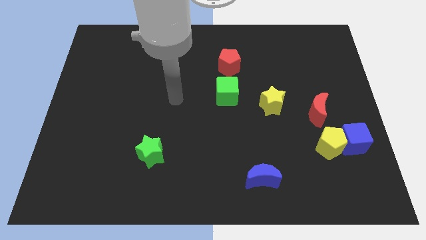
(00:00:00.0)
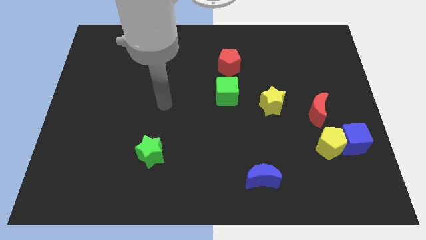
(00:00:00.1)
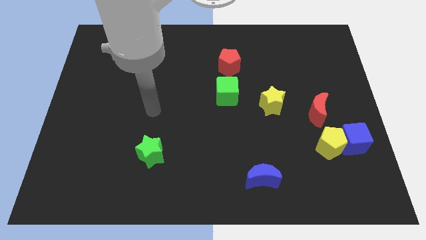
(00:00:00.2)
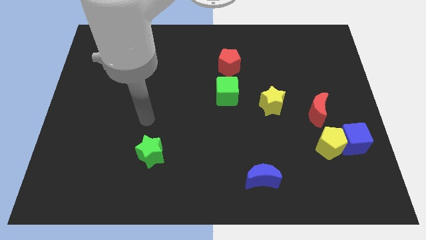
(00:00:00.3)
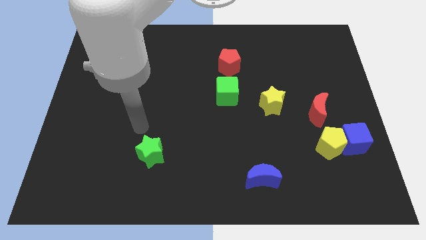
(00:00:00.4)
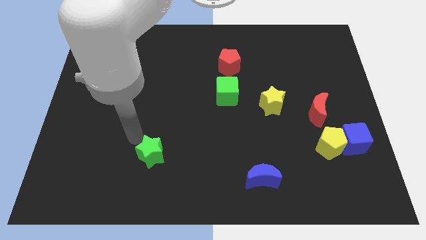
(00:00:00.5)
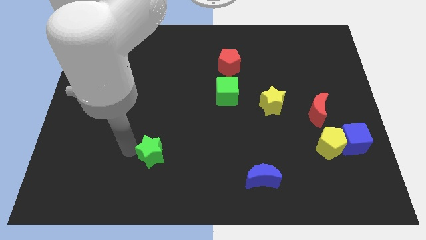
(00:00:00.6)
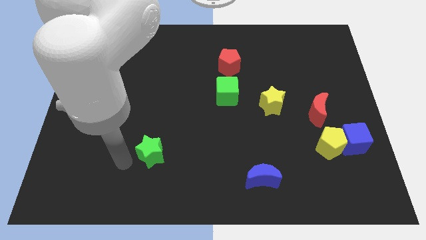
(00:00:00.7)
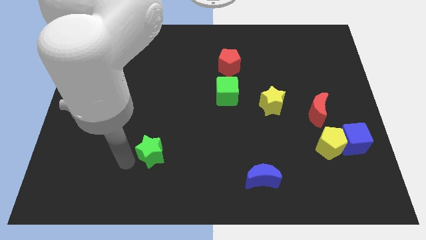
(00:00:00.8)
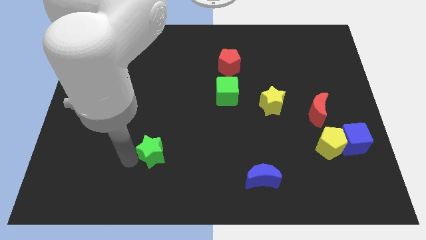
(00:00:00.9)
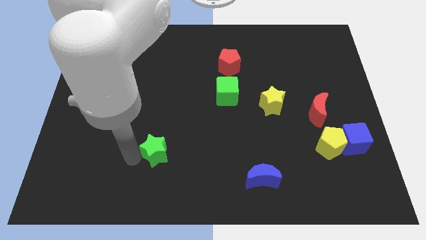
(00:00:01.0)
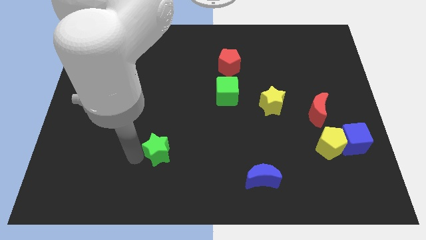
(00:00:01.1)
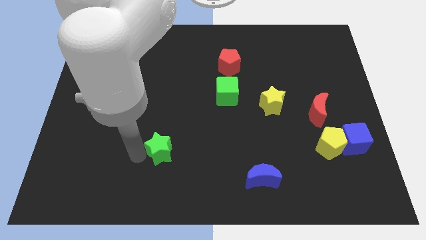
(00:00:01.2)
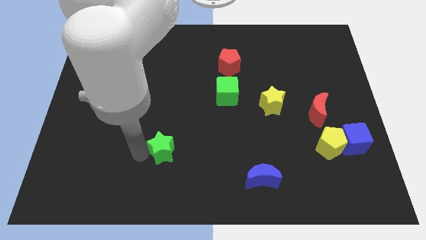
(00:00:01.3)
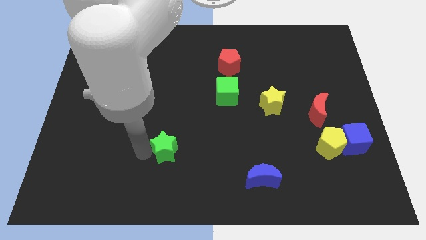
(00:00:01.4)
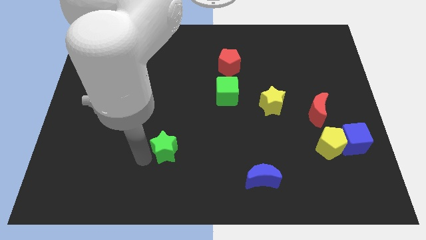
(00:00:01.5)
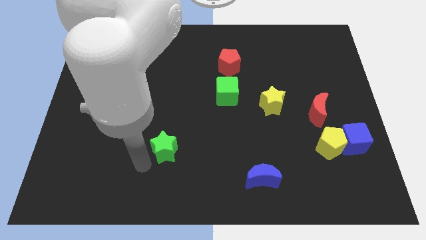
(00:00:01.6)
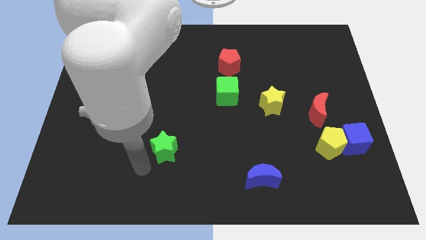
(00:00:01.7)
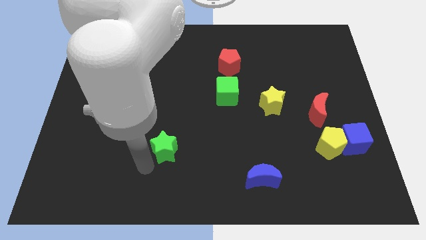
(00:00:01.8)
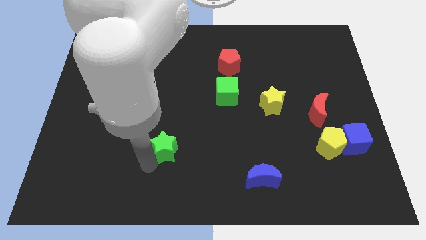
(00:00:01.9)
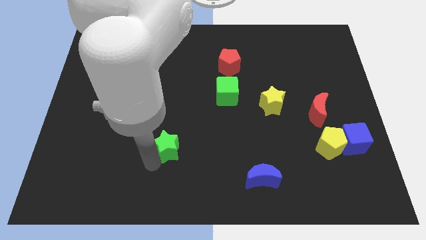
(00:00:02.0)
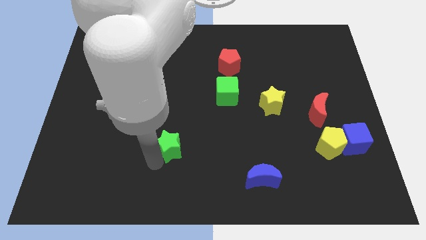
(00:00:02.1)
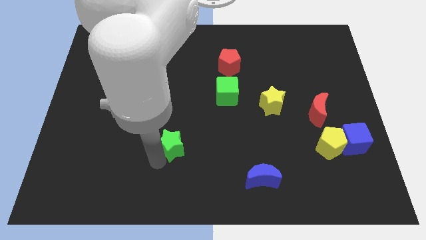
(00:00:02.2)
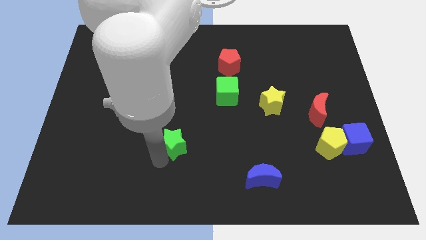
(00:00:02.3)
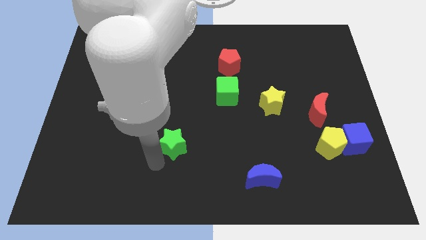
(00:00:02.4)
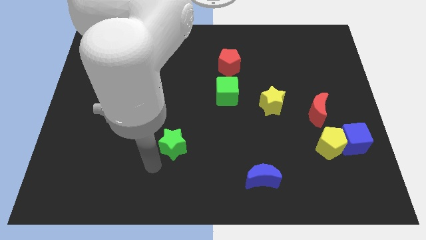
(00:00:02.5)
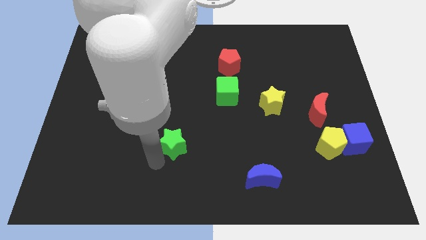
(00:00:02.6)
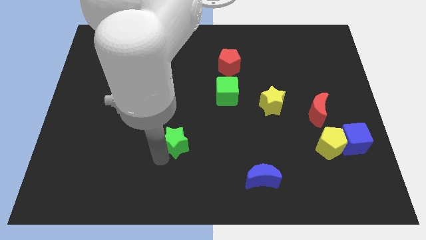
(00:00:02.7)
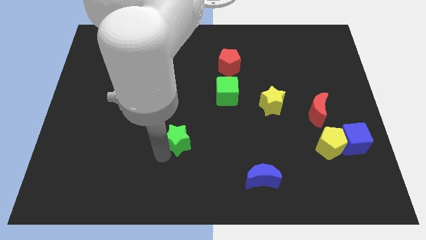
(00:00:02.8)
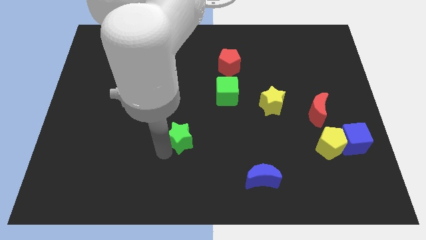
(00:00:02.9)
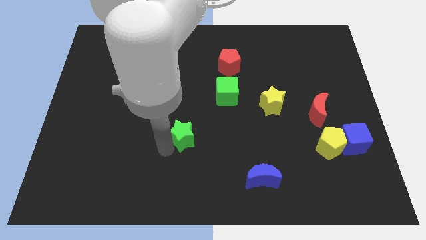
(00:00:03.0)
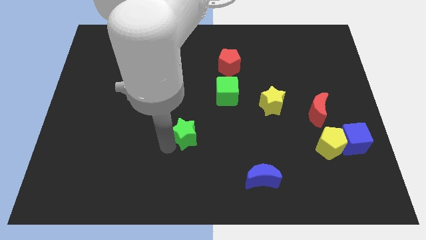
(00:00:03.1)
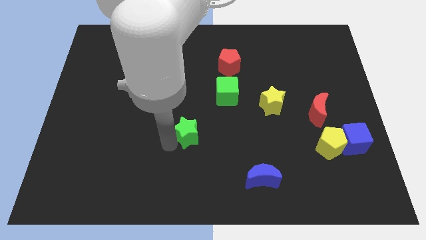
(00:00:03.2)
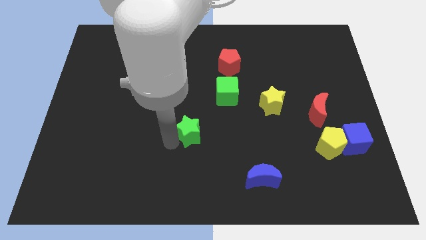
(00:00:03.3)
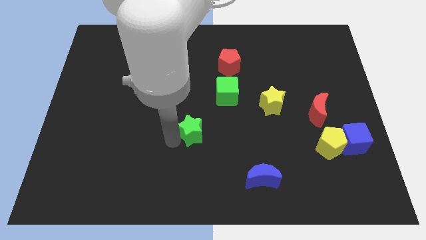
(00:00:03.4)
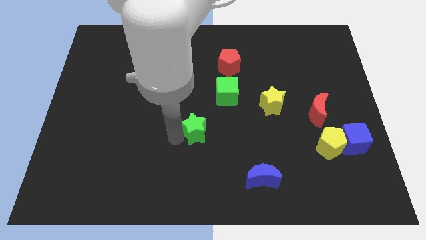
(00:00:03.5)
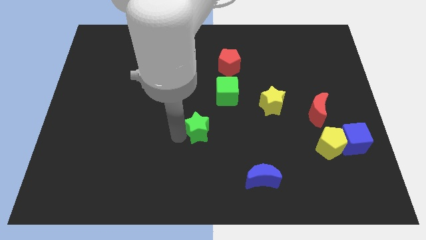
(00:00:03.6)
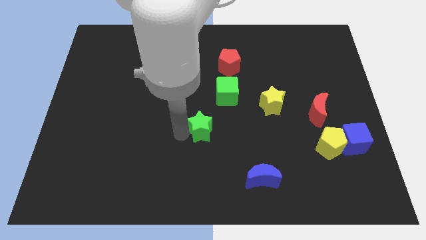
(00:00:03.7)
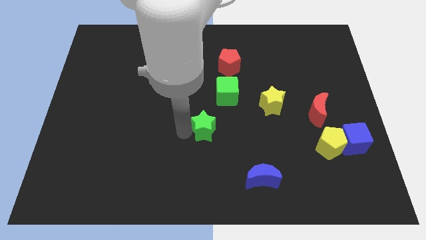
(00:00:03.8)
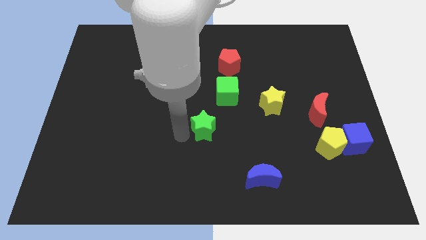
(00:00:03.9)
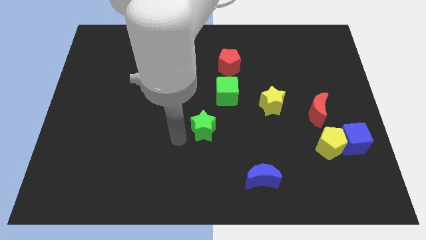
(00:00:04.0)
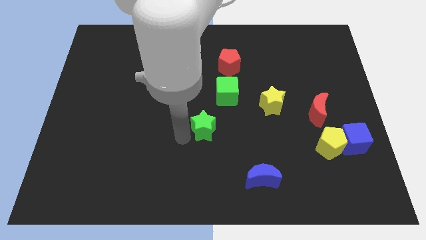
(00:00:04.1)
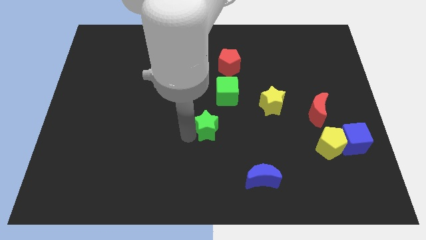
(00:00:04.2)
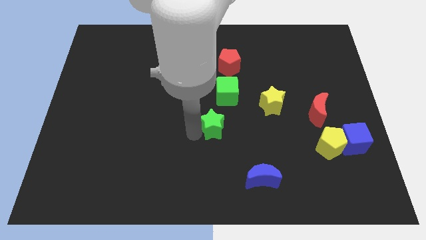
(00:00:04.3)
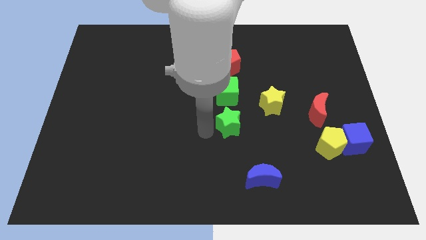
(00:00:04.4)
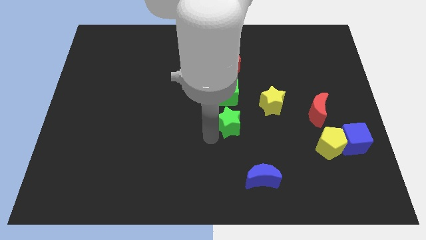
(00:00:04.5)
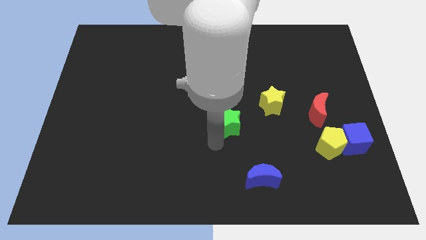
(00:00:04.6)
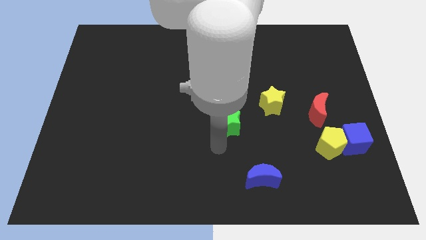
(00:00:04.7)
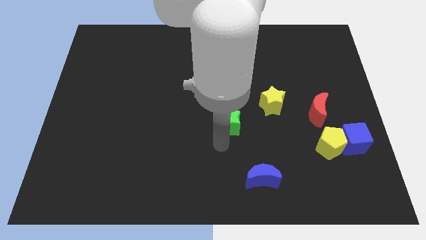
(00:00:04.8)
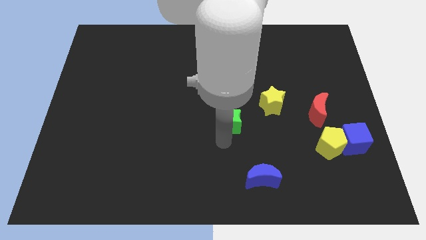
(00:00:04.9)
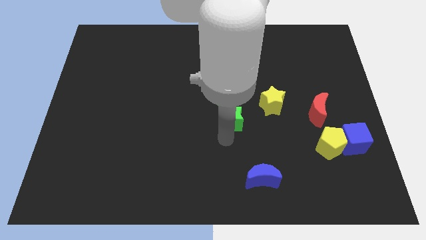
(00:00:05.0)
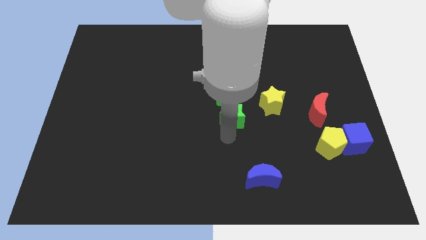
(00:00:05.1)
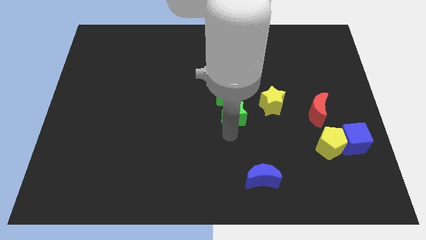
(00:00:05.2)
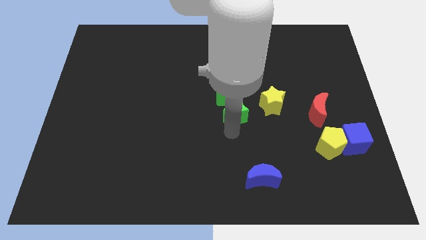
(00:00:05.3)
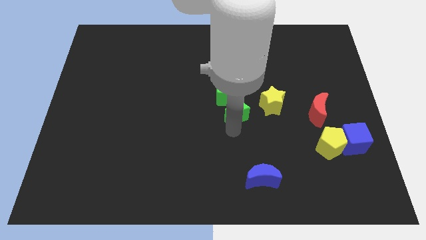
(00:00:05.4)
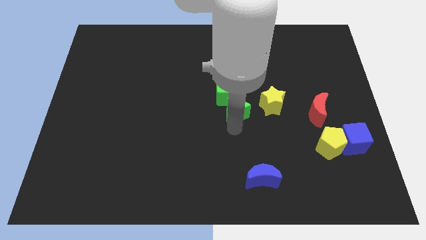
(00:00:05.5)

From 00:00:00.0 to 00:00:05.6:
push the green star up and right

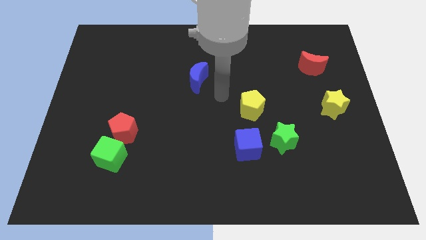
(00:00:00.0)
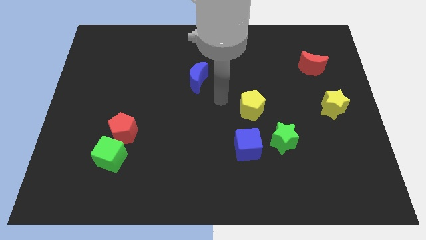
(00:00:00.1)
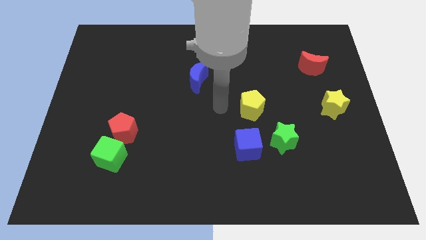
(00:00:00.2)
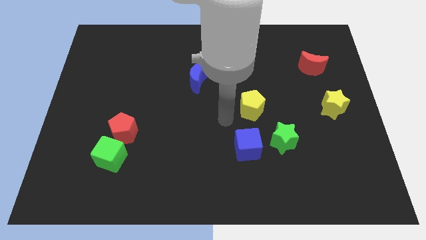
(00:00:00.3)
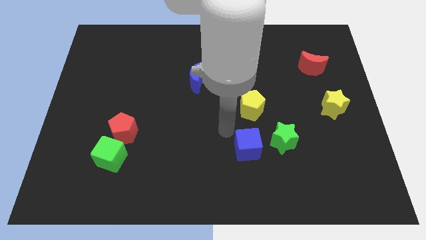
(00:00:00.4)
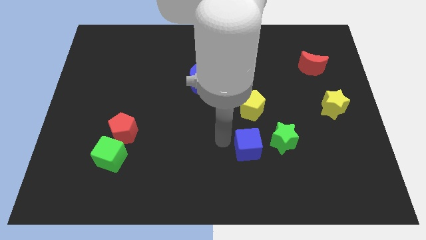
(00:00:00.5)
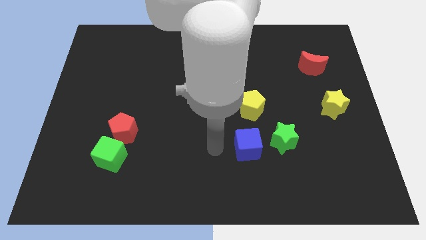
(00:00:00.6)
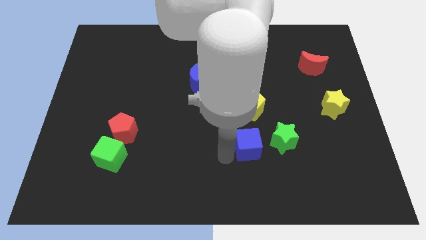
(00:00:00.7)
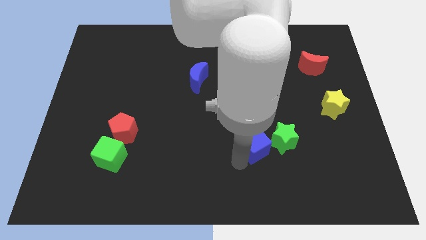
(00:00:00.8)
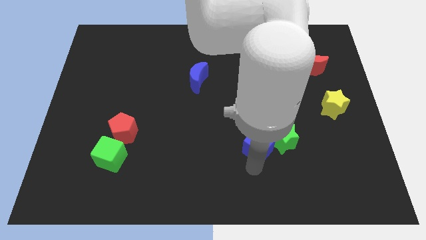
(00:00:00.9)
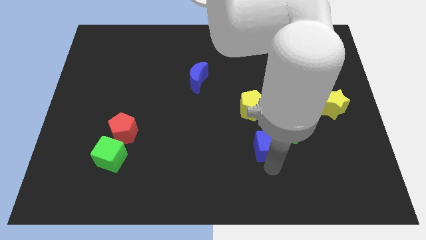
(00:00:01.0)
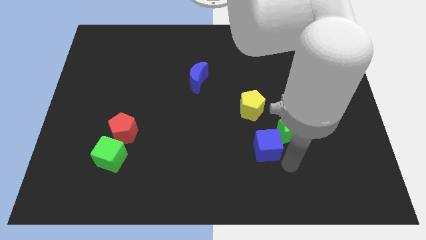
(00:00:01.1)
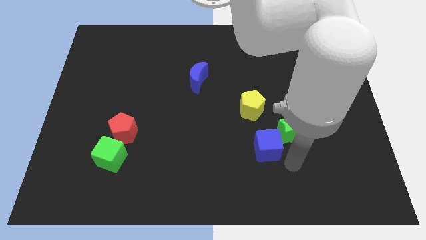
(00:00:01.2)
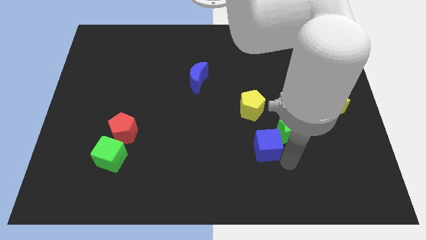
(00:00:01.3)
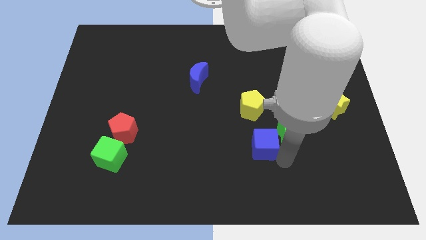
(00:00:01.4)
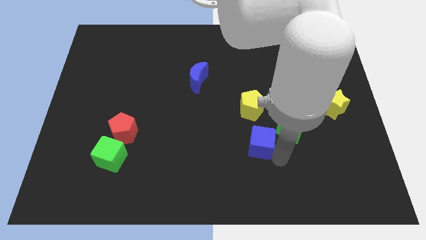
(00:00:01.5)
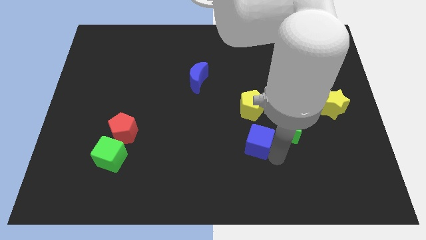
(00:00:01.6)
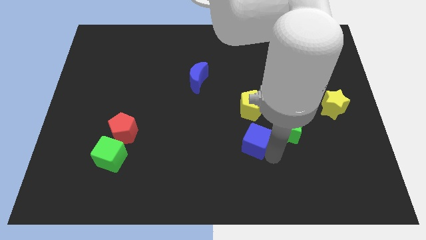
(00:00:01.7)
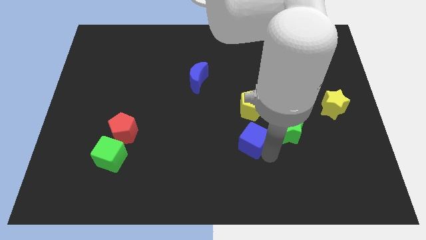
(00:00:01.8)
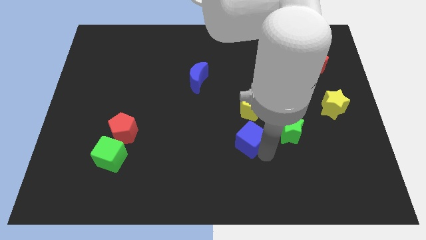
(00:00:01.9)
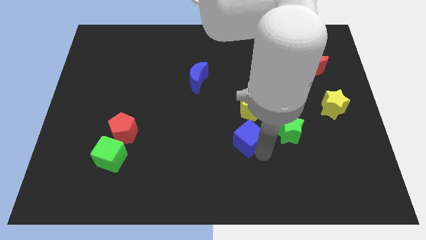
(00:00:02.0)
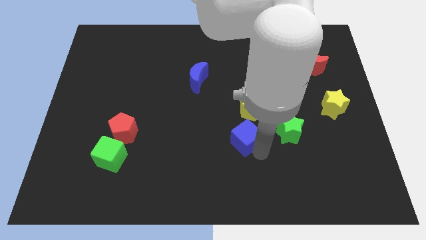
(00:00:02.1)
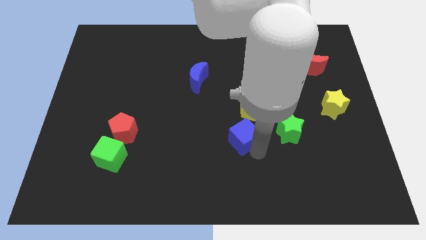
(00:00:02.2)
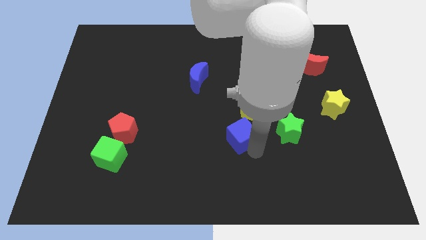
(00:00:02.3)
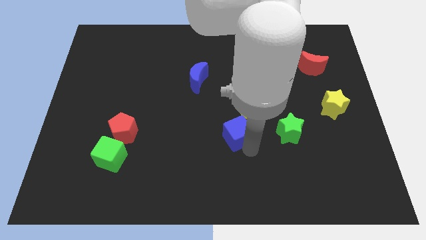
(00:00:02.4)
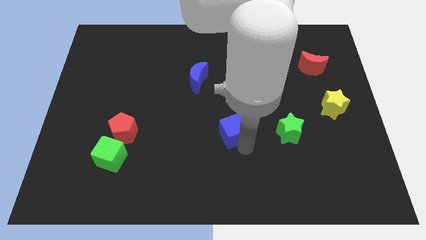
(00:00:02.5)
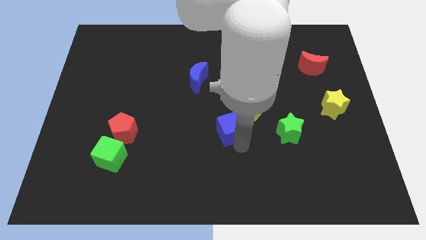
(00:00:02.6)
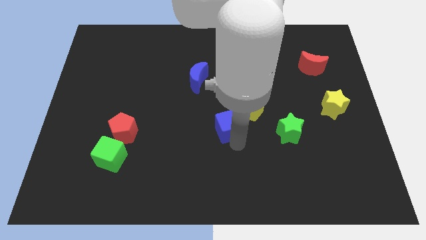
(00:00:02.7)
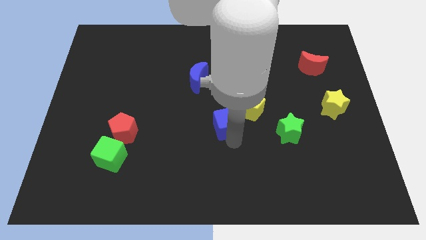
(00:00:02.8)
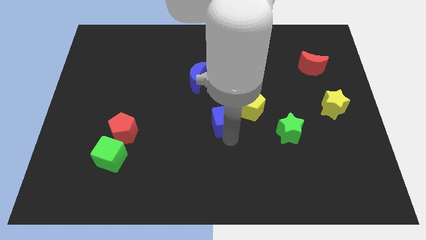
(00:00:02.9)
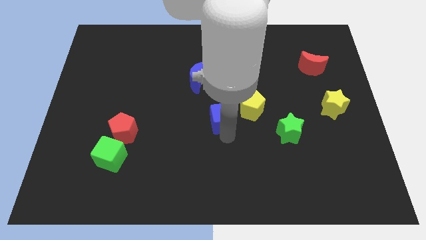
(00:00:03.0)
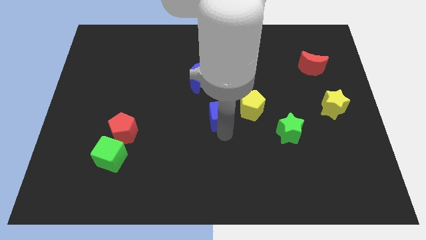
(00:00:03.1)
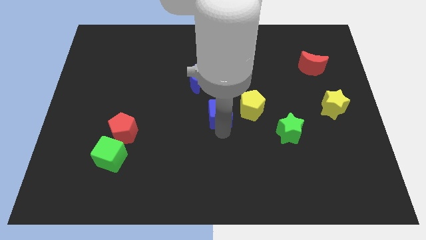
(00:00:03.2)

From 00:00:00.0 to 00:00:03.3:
push the blue cube up a little
